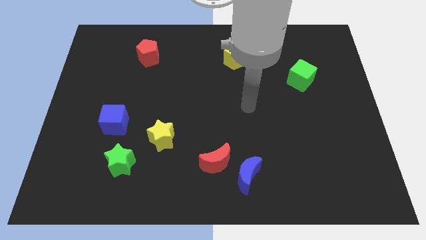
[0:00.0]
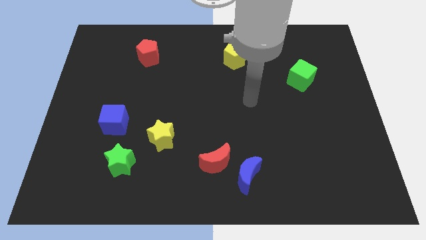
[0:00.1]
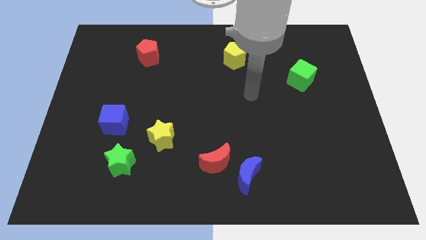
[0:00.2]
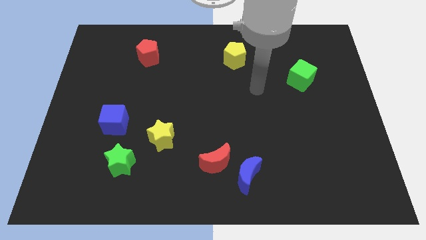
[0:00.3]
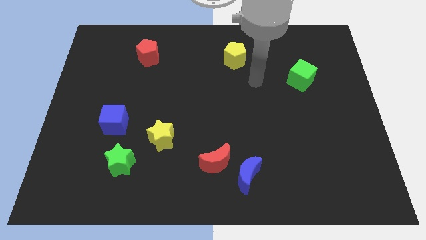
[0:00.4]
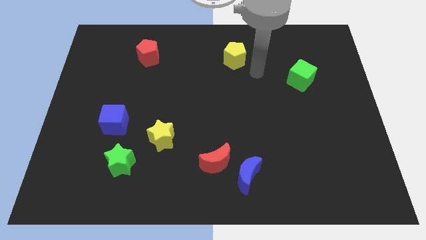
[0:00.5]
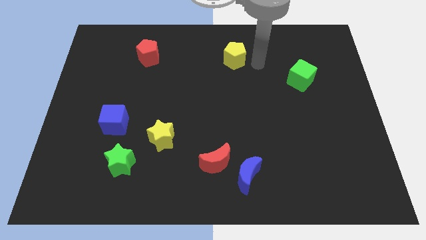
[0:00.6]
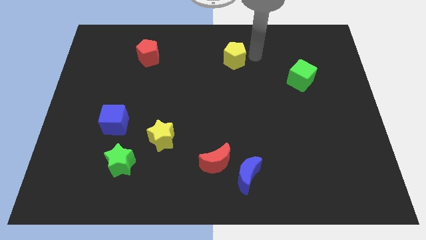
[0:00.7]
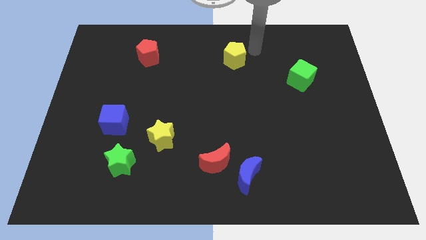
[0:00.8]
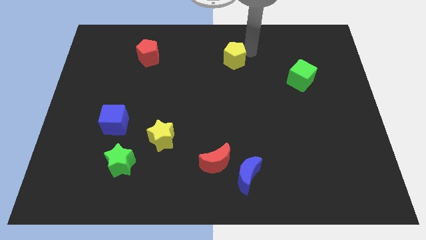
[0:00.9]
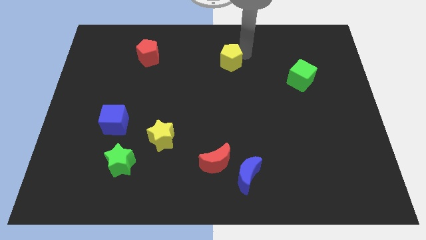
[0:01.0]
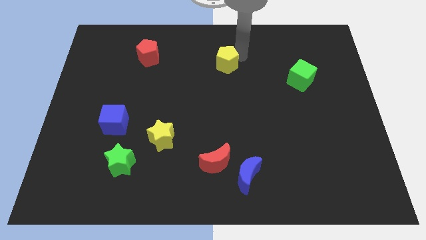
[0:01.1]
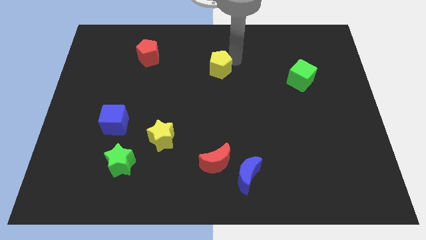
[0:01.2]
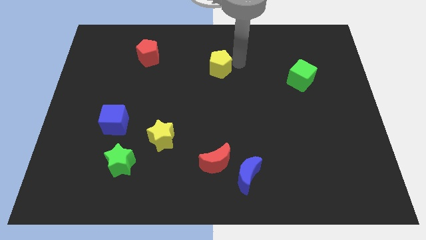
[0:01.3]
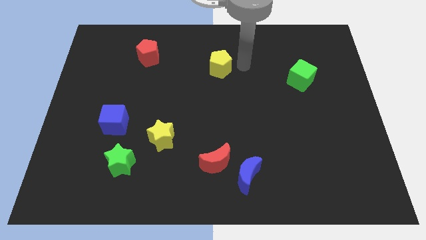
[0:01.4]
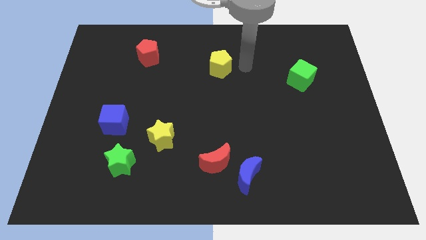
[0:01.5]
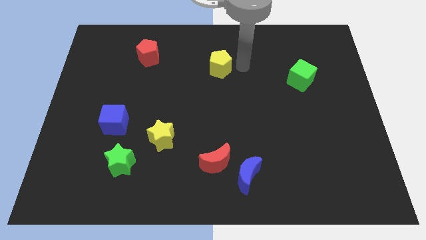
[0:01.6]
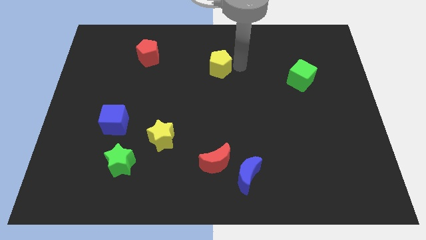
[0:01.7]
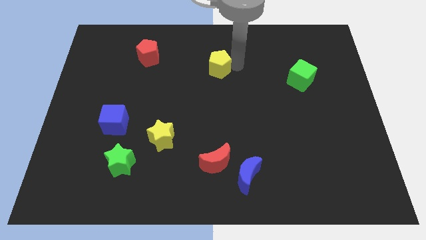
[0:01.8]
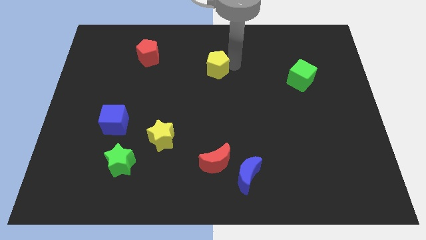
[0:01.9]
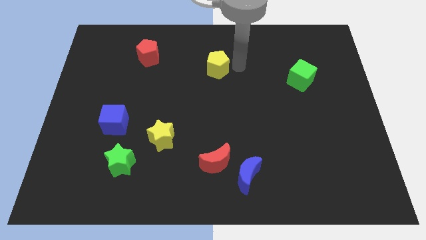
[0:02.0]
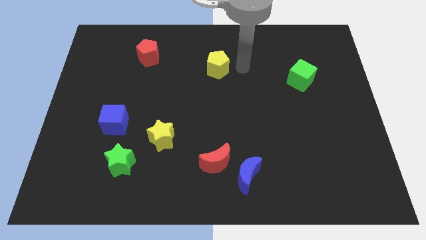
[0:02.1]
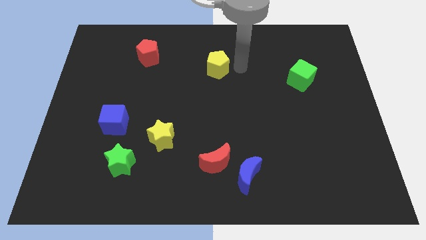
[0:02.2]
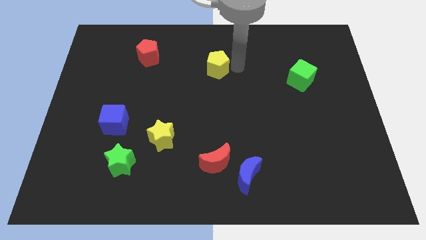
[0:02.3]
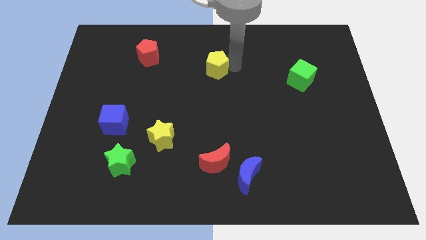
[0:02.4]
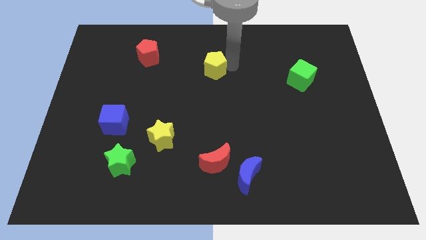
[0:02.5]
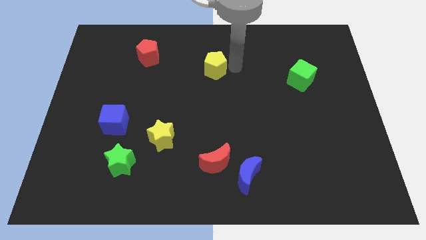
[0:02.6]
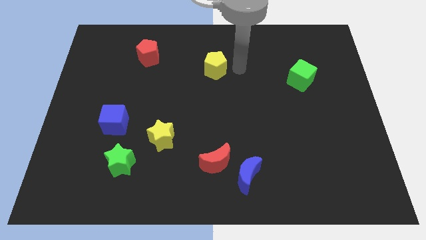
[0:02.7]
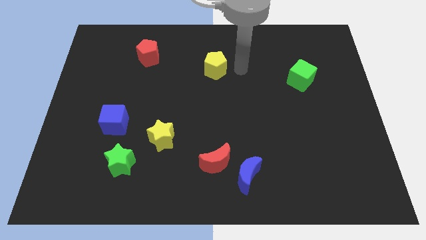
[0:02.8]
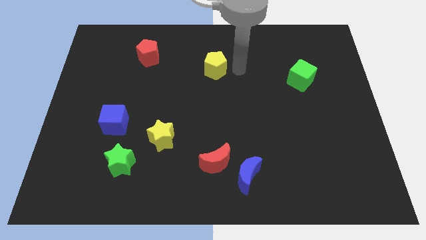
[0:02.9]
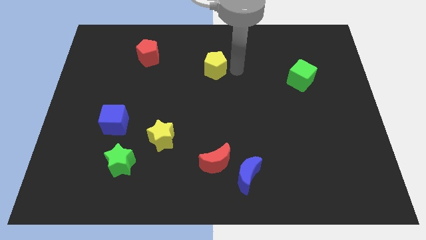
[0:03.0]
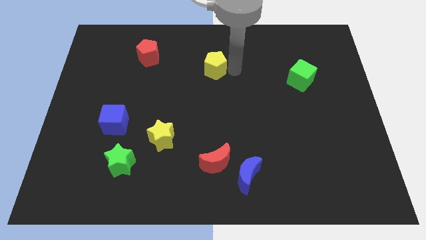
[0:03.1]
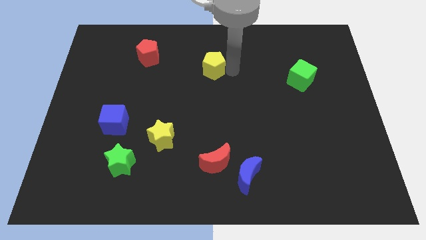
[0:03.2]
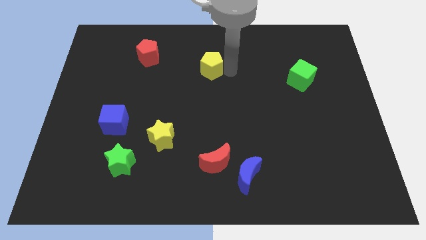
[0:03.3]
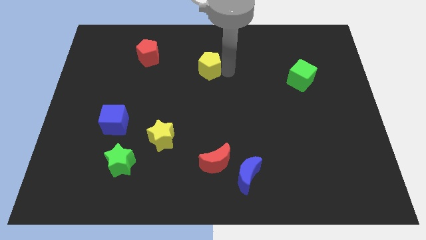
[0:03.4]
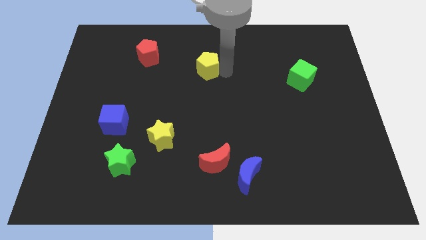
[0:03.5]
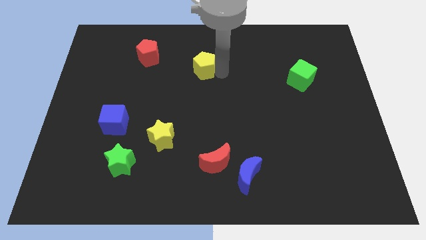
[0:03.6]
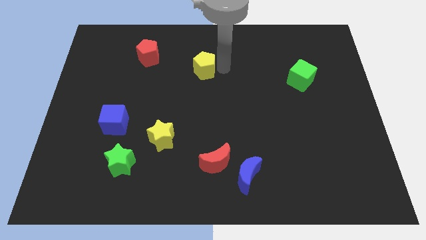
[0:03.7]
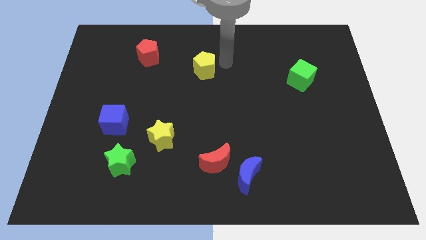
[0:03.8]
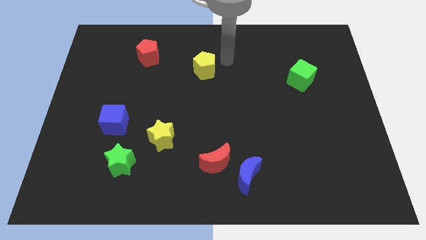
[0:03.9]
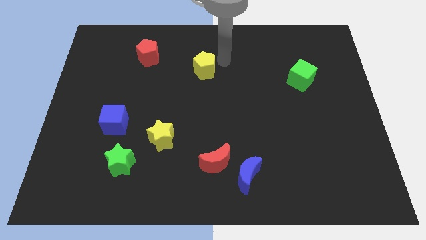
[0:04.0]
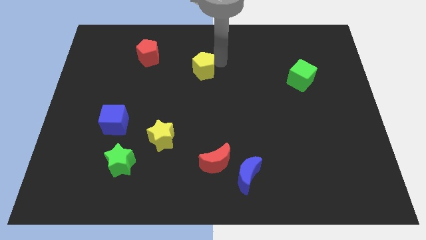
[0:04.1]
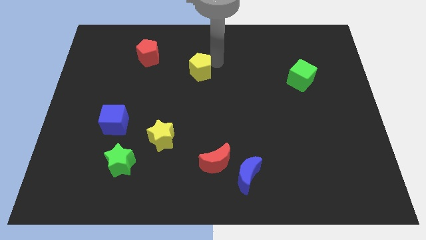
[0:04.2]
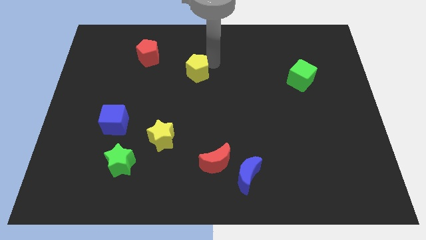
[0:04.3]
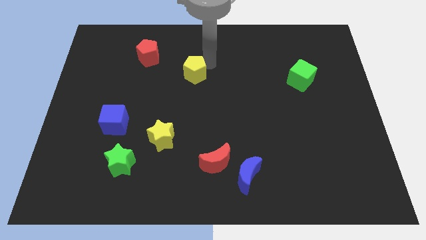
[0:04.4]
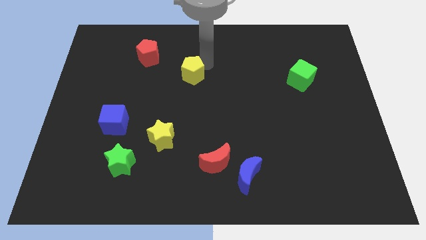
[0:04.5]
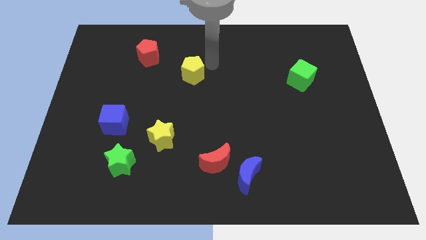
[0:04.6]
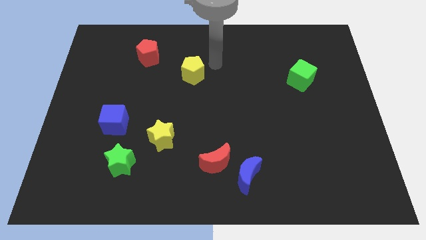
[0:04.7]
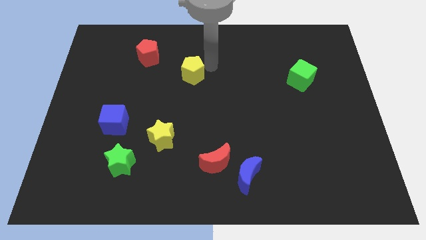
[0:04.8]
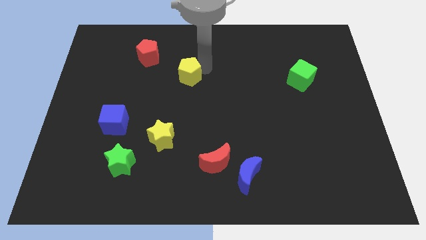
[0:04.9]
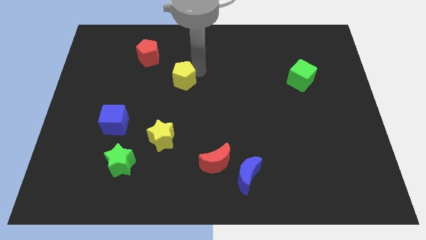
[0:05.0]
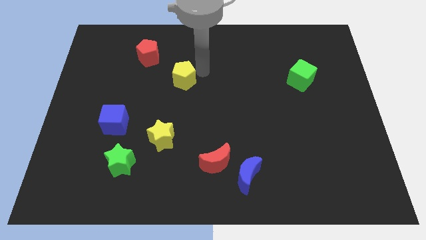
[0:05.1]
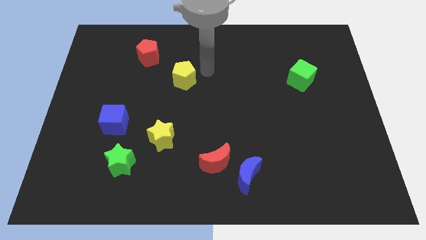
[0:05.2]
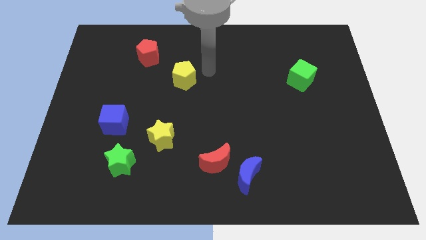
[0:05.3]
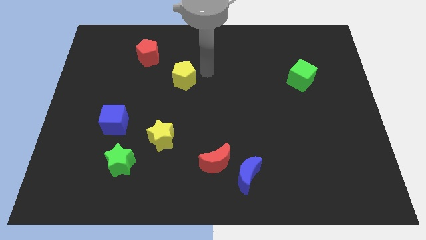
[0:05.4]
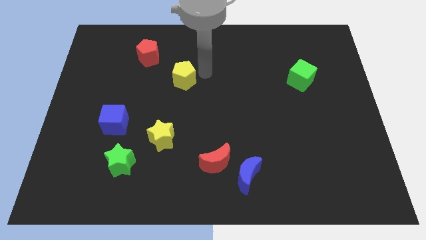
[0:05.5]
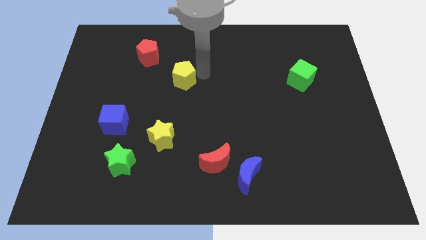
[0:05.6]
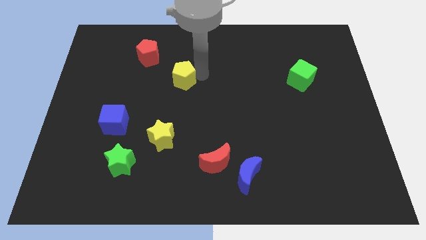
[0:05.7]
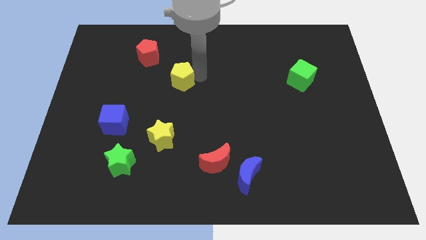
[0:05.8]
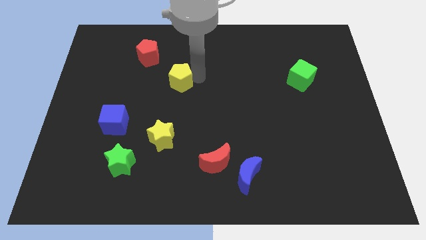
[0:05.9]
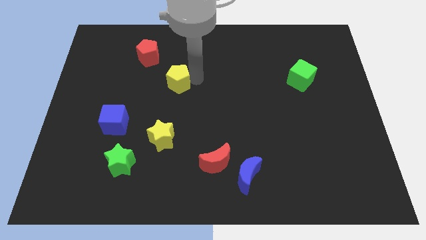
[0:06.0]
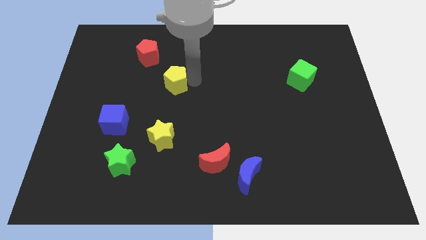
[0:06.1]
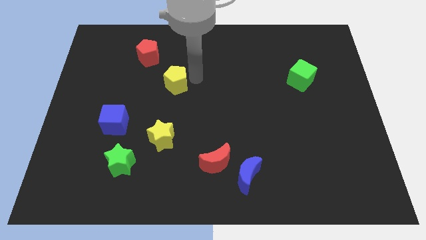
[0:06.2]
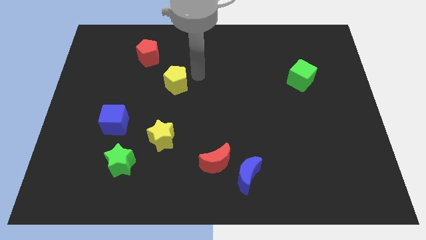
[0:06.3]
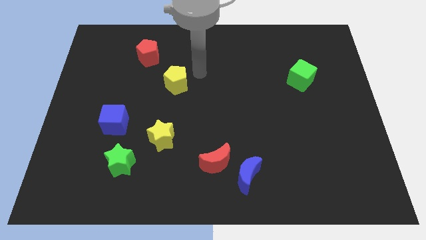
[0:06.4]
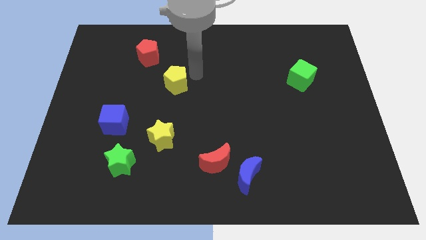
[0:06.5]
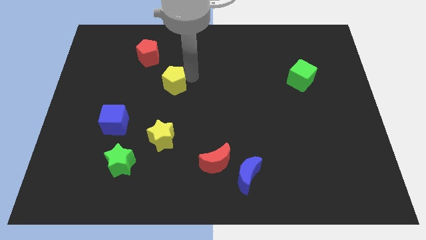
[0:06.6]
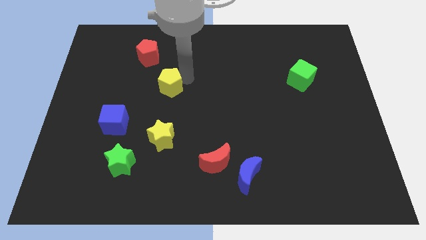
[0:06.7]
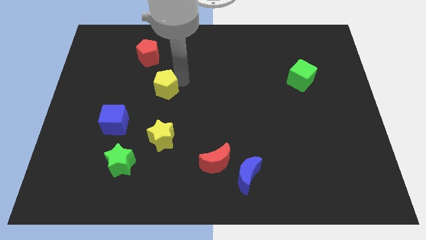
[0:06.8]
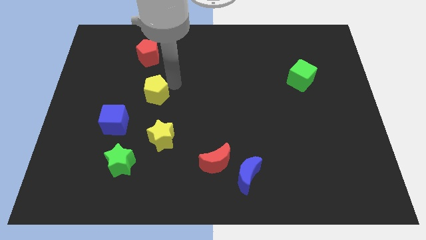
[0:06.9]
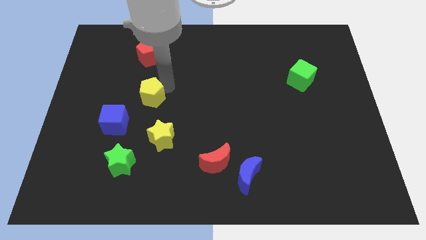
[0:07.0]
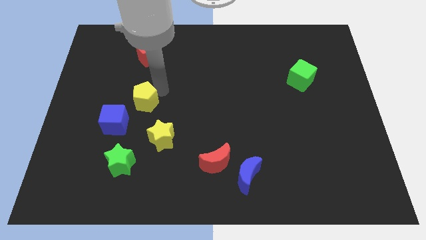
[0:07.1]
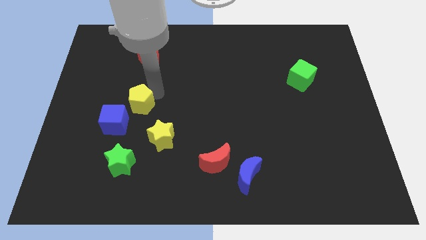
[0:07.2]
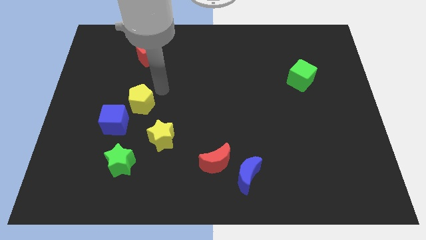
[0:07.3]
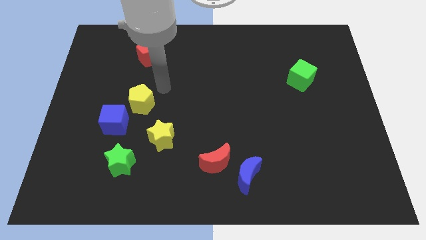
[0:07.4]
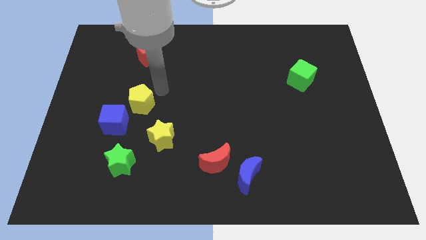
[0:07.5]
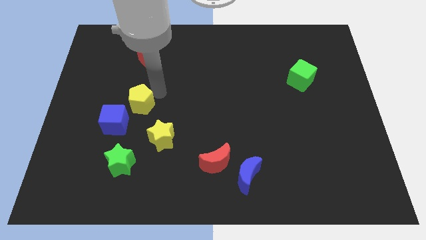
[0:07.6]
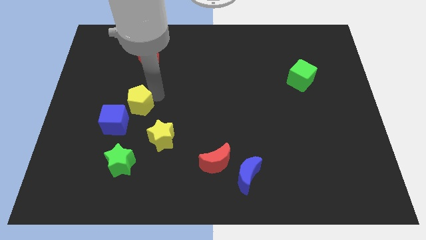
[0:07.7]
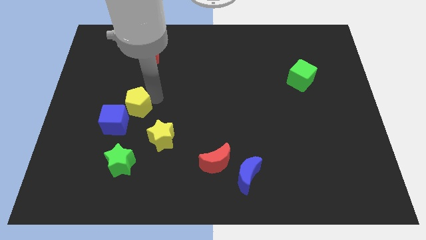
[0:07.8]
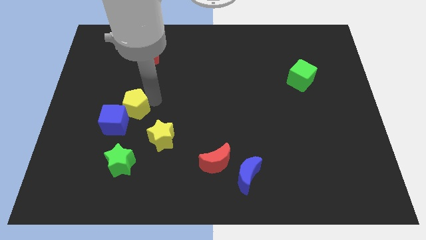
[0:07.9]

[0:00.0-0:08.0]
slide the yellow pentagon close to the blue cube

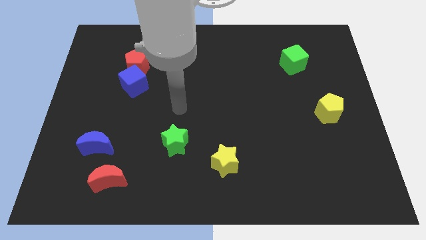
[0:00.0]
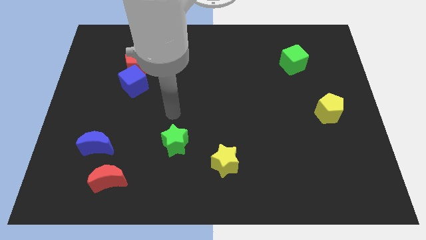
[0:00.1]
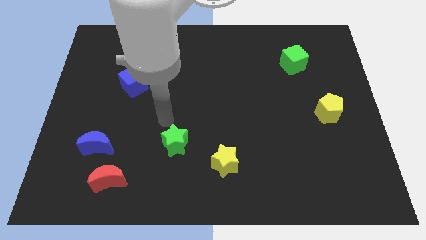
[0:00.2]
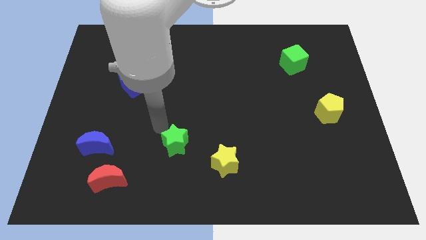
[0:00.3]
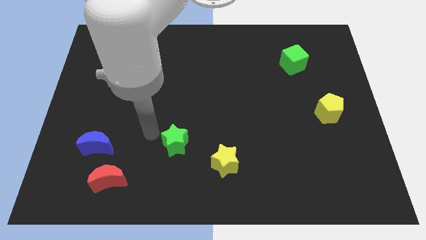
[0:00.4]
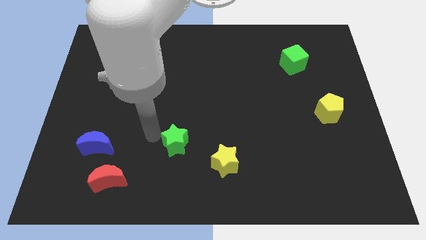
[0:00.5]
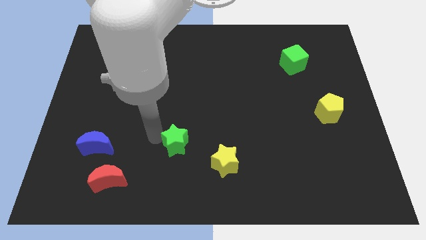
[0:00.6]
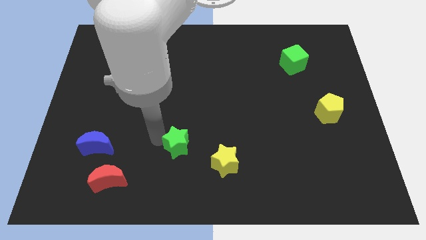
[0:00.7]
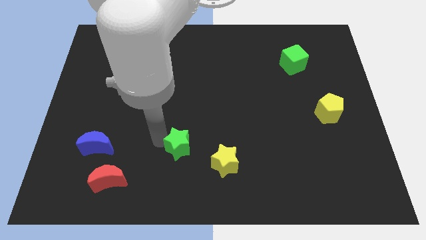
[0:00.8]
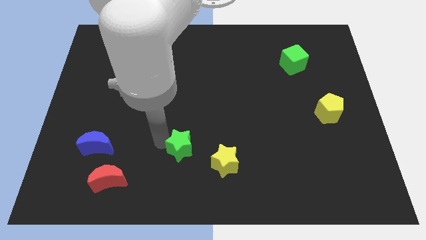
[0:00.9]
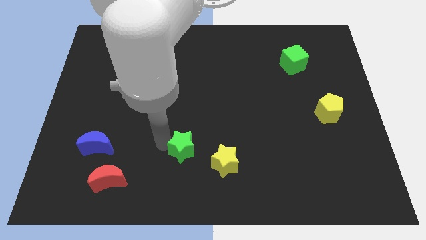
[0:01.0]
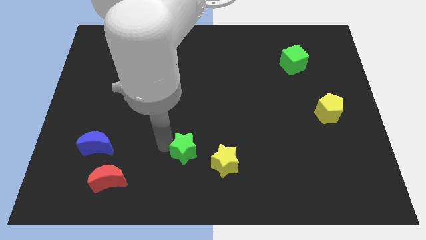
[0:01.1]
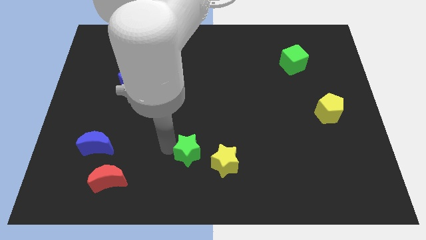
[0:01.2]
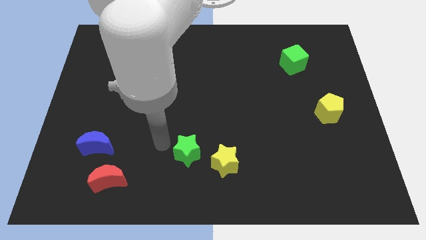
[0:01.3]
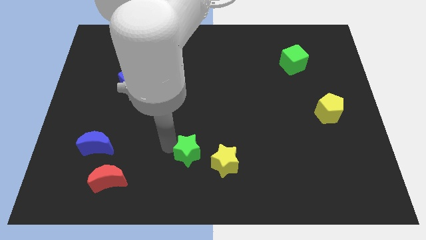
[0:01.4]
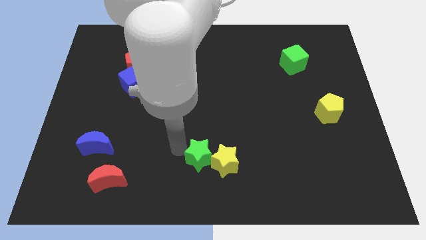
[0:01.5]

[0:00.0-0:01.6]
put the green star next to the yellow star
